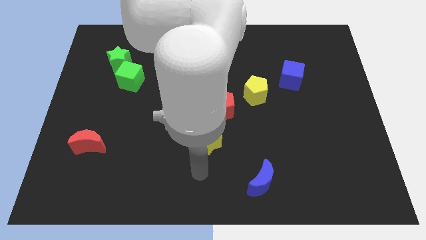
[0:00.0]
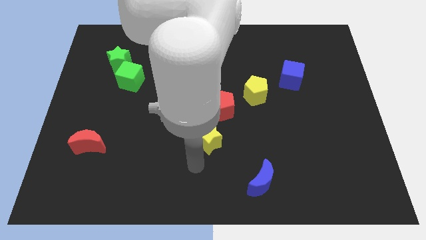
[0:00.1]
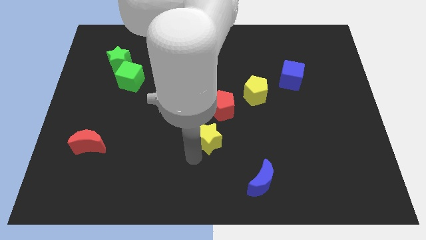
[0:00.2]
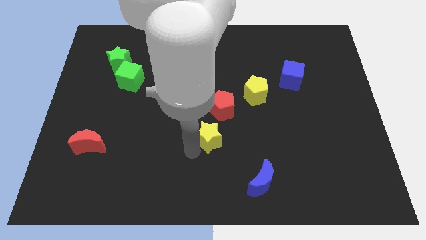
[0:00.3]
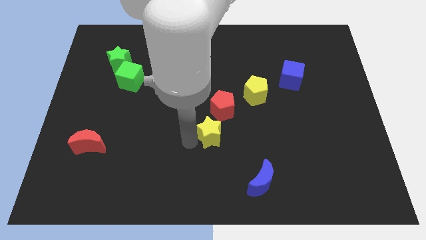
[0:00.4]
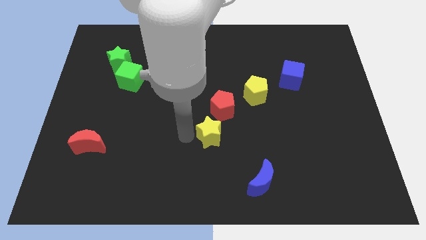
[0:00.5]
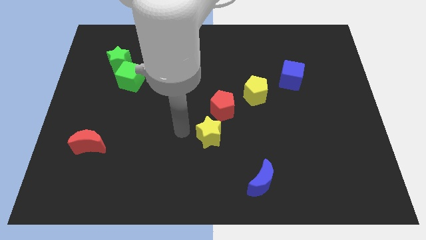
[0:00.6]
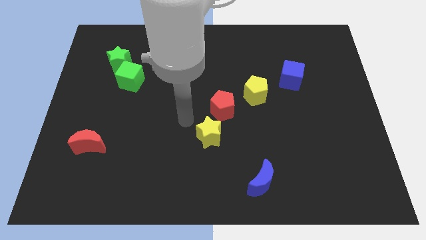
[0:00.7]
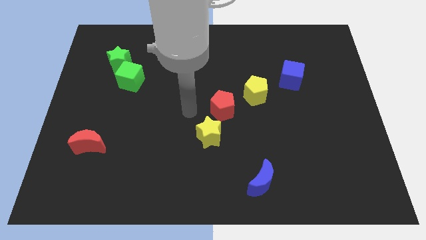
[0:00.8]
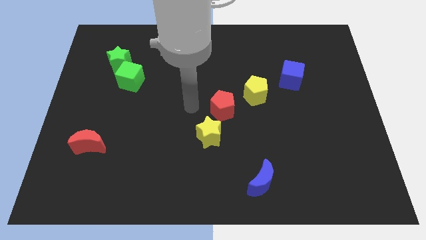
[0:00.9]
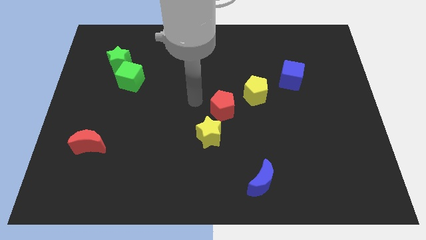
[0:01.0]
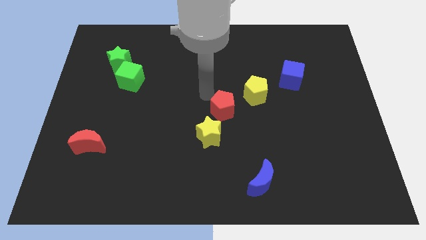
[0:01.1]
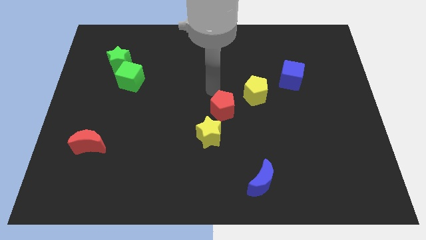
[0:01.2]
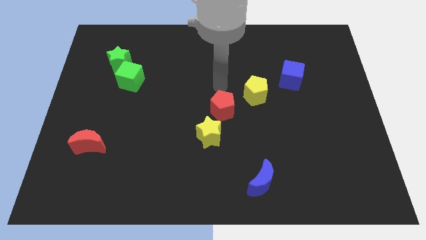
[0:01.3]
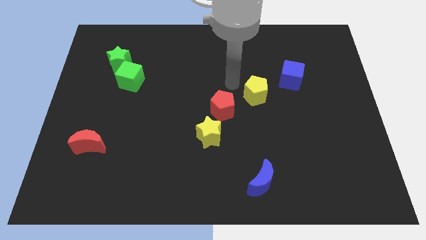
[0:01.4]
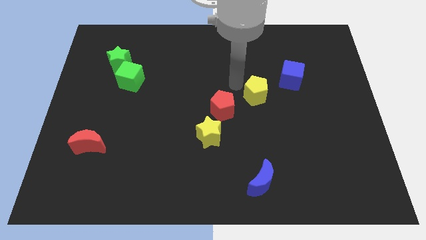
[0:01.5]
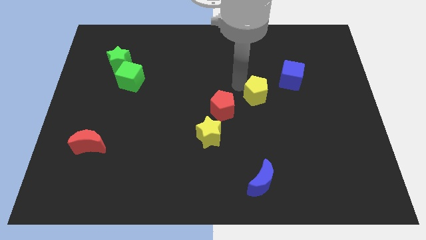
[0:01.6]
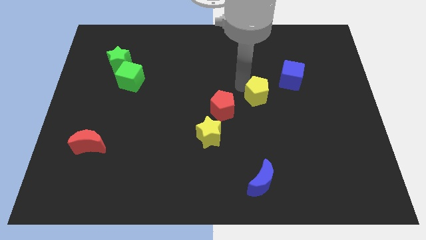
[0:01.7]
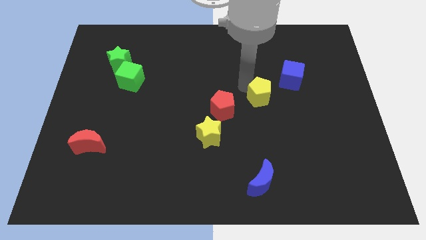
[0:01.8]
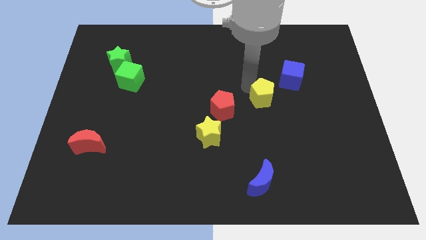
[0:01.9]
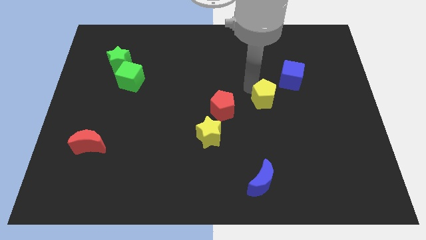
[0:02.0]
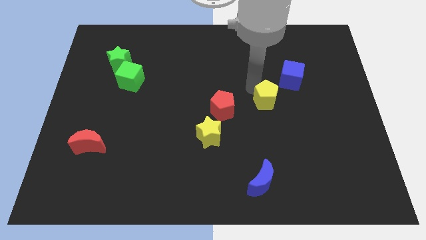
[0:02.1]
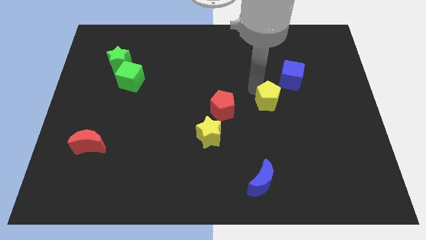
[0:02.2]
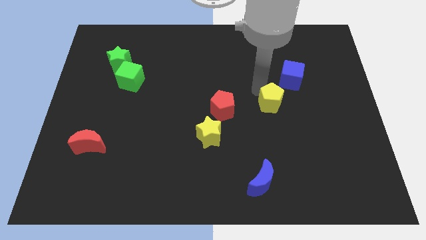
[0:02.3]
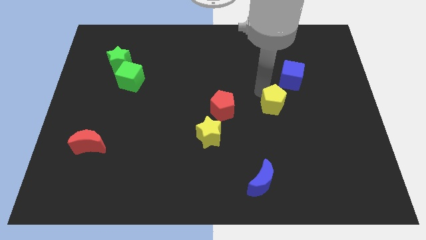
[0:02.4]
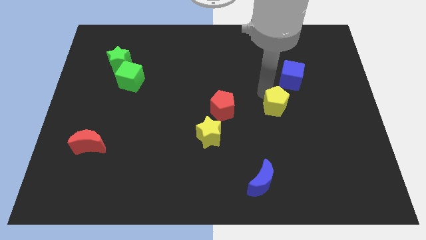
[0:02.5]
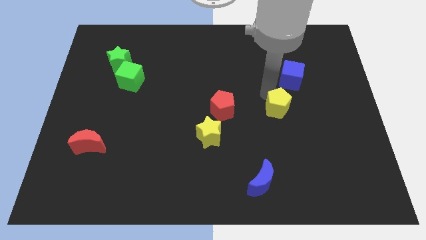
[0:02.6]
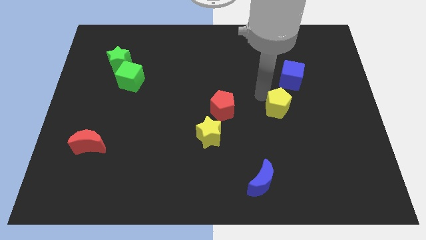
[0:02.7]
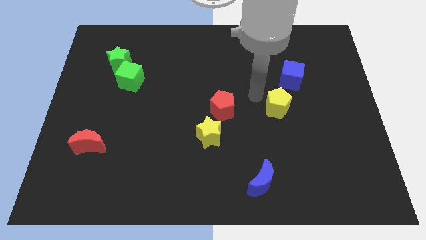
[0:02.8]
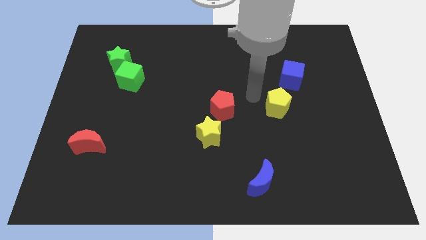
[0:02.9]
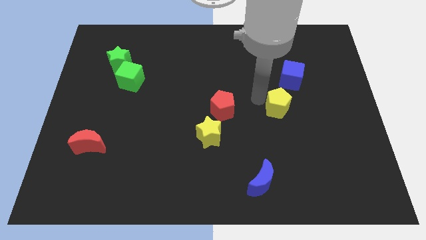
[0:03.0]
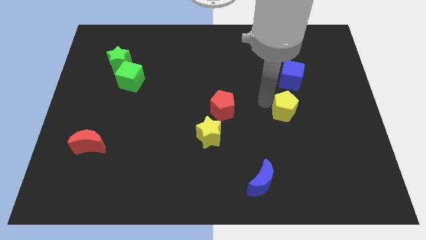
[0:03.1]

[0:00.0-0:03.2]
push the yellow pentagon slightly downwards and to the right diagonally

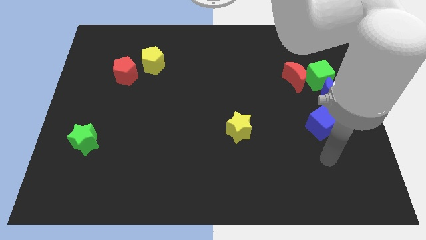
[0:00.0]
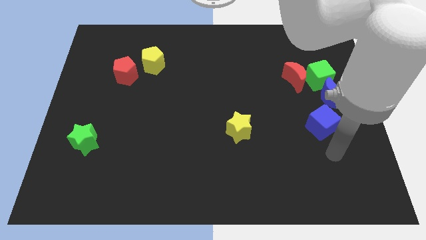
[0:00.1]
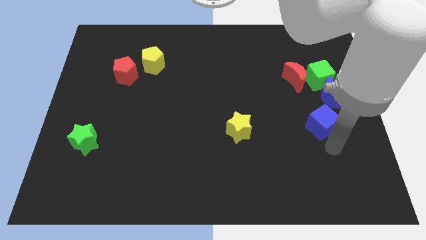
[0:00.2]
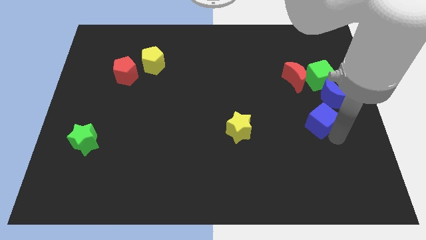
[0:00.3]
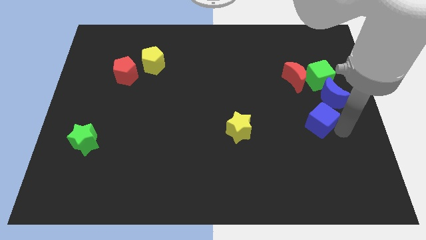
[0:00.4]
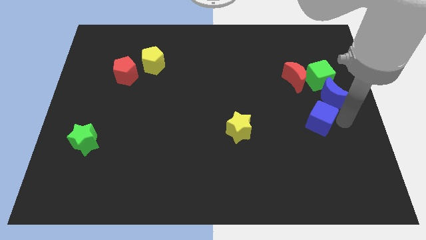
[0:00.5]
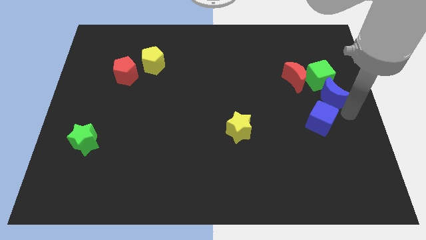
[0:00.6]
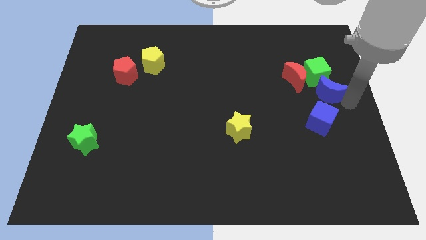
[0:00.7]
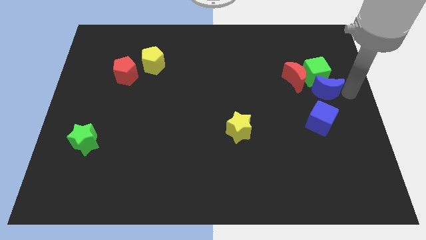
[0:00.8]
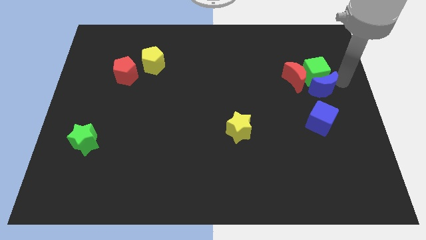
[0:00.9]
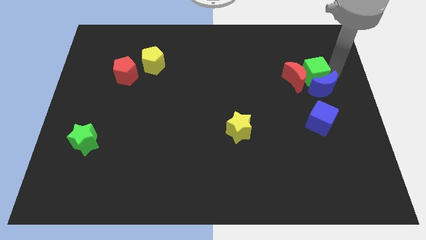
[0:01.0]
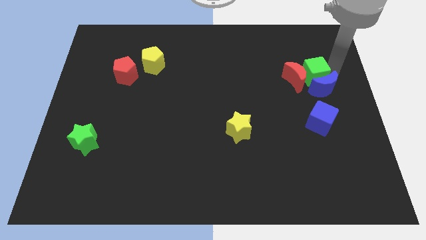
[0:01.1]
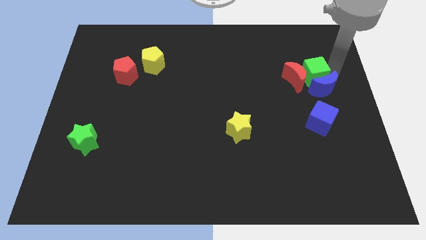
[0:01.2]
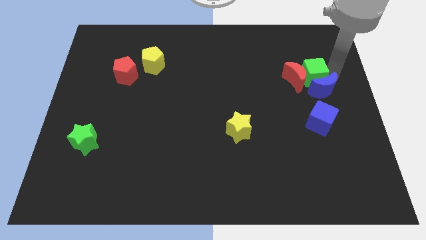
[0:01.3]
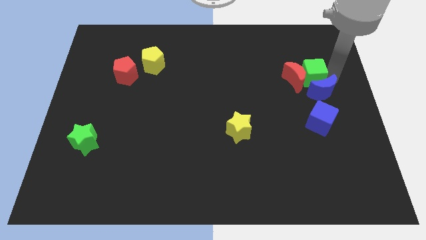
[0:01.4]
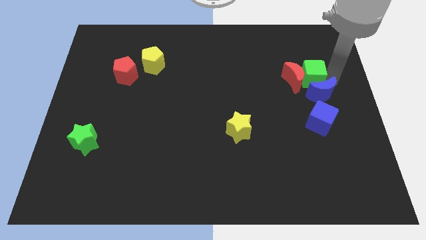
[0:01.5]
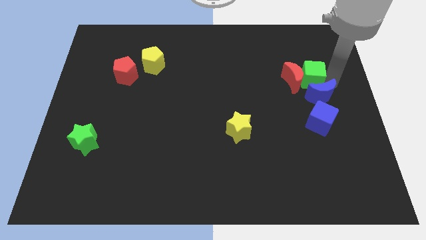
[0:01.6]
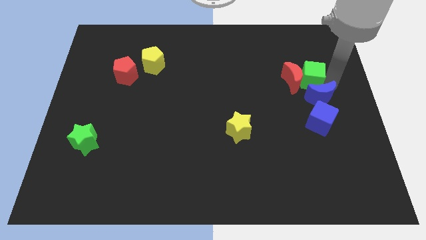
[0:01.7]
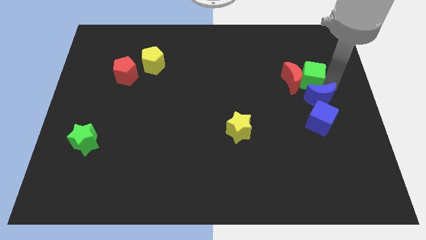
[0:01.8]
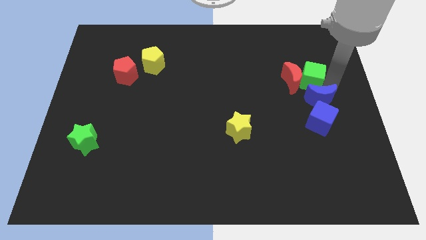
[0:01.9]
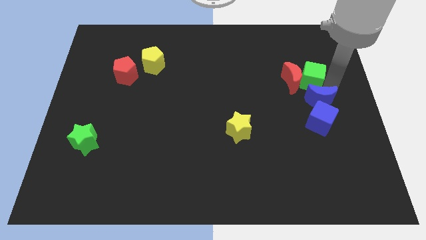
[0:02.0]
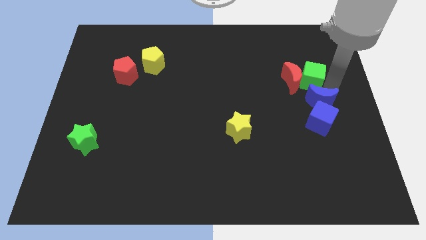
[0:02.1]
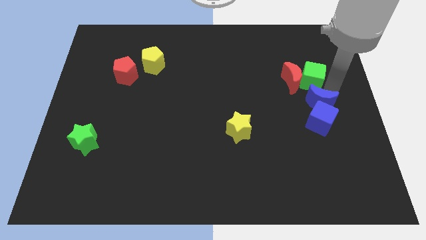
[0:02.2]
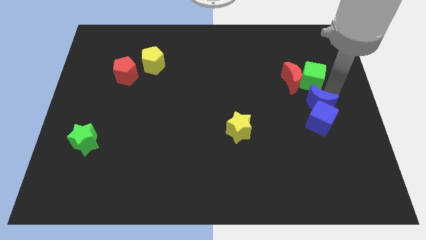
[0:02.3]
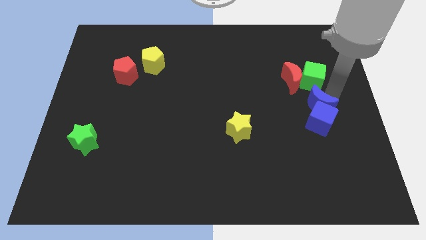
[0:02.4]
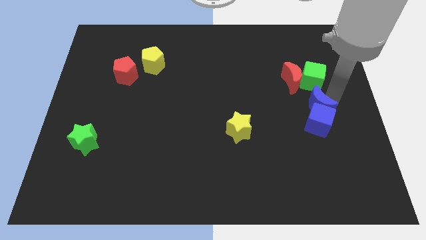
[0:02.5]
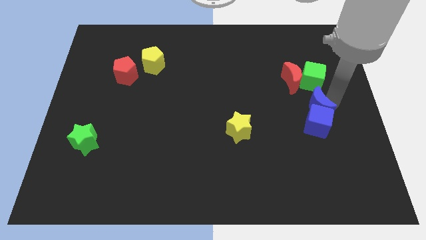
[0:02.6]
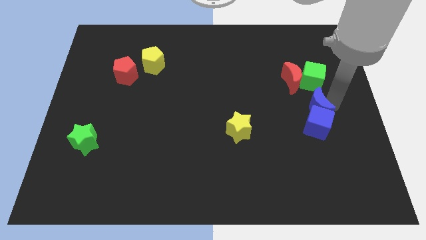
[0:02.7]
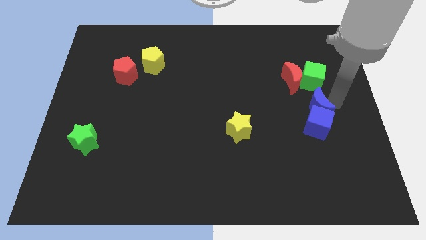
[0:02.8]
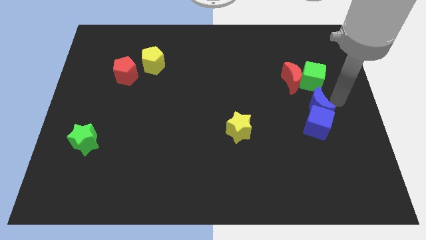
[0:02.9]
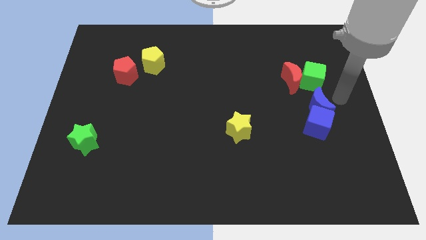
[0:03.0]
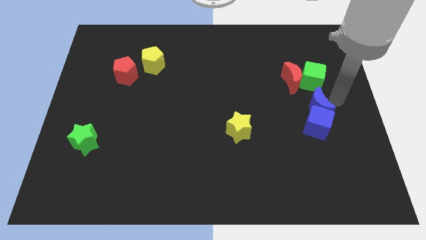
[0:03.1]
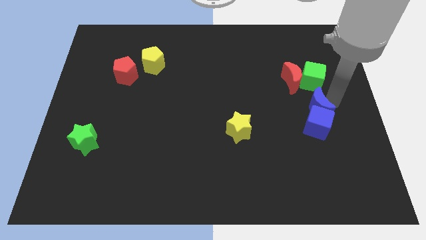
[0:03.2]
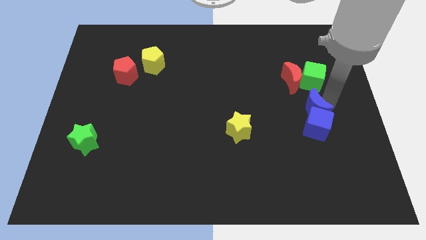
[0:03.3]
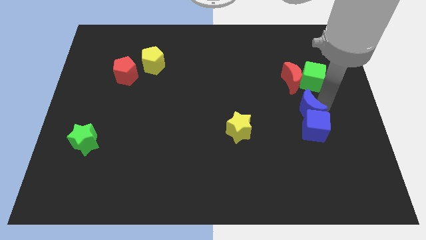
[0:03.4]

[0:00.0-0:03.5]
slightly slide the blue moon downwards and left diagonally

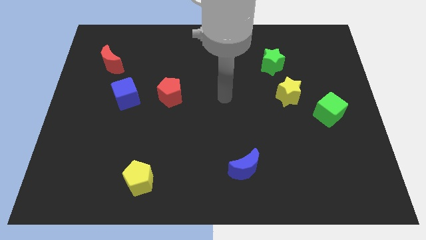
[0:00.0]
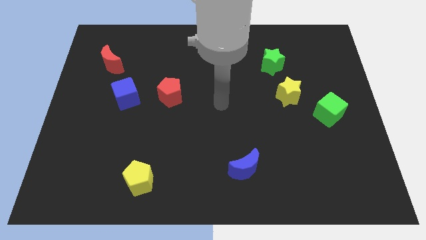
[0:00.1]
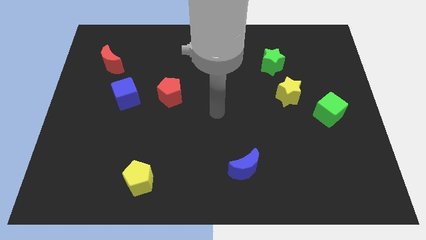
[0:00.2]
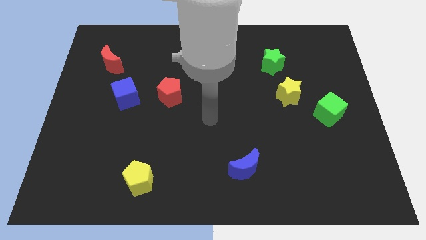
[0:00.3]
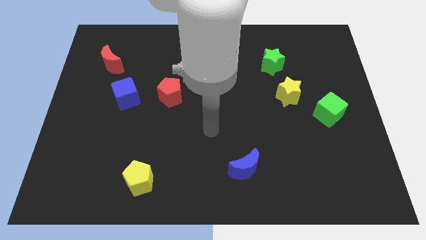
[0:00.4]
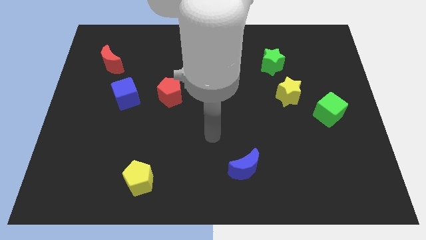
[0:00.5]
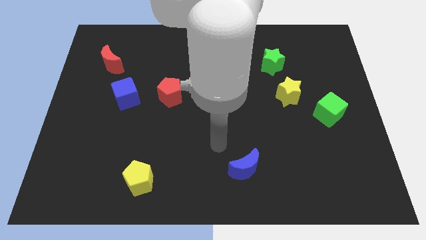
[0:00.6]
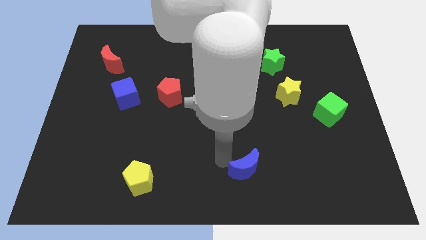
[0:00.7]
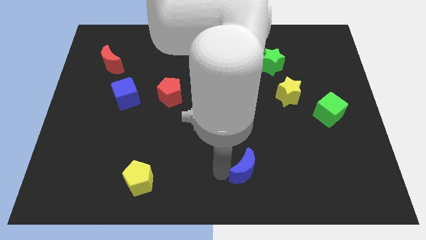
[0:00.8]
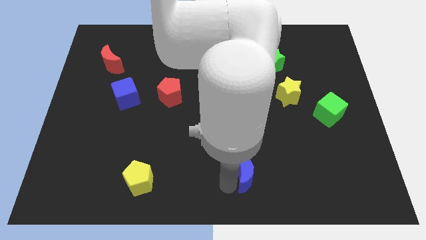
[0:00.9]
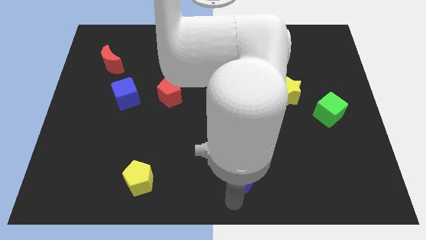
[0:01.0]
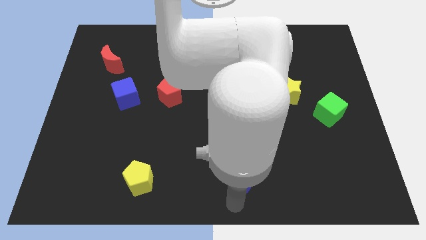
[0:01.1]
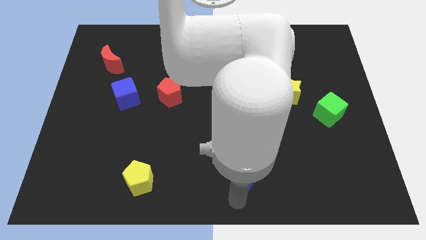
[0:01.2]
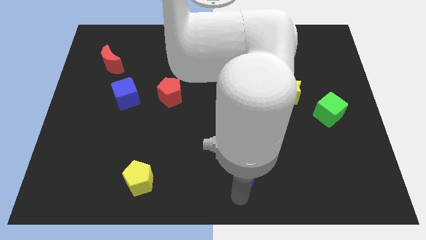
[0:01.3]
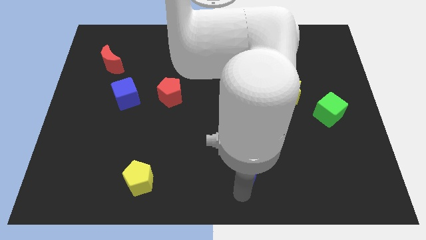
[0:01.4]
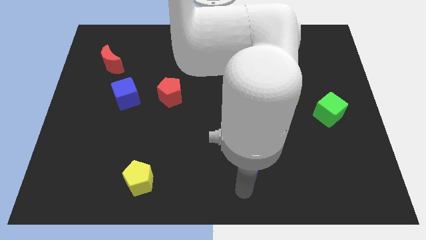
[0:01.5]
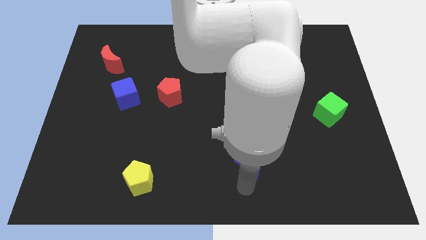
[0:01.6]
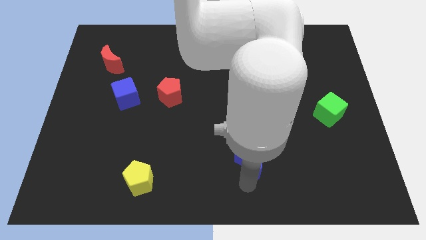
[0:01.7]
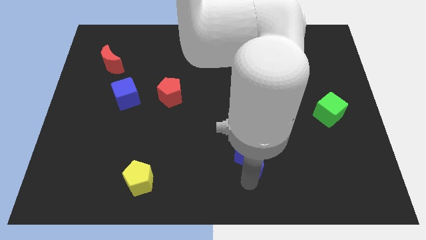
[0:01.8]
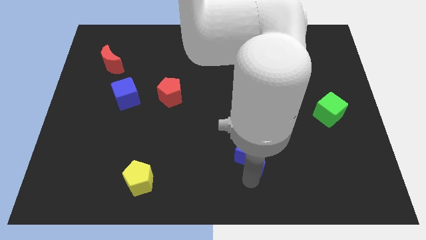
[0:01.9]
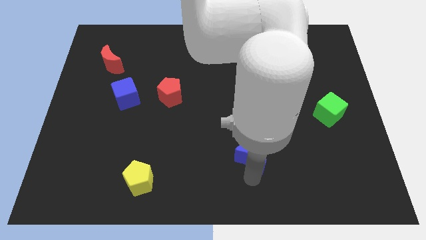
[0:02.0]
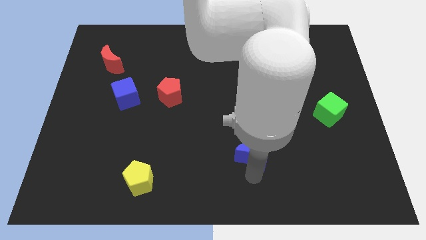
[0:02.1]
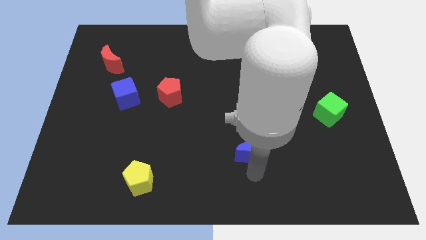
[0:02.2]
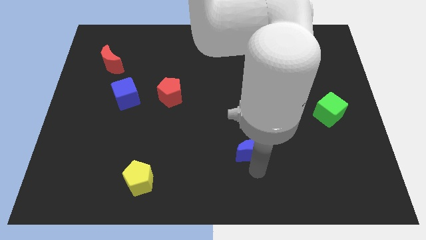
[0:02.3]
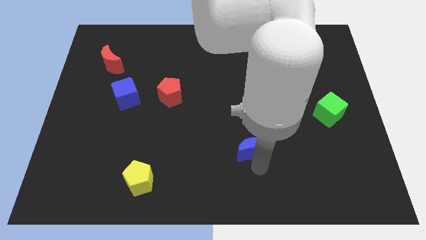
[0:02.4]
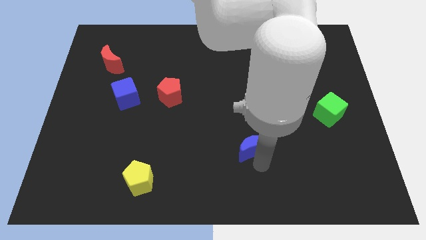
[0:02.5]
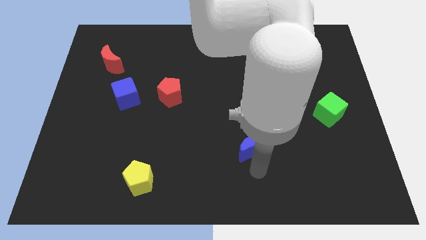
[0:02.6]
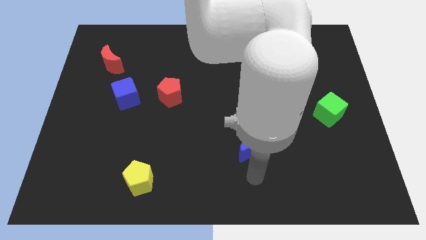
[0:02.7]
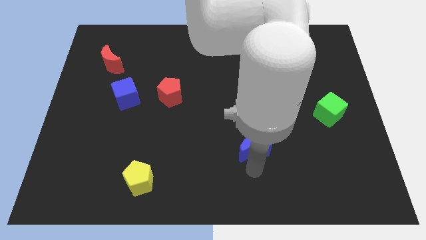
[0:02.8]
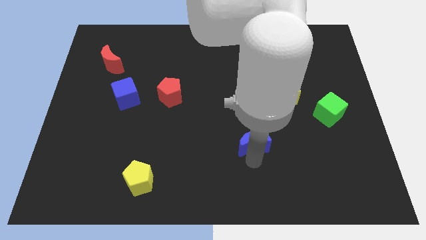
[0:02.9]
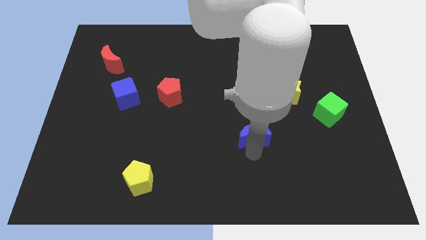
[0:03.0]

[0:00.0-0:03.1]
slightly slide the blue moon upwards
